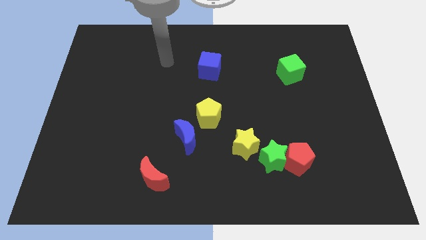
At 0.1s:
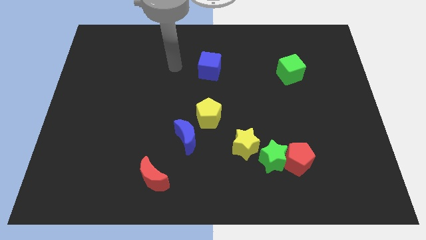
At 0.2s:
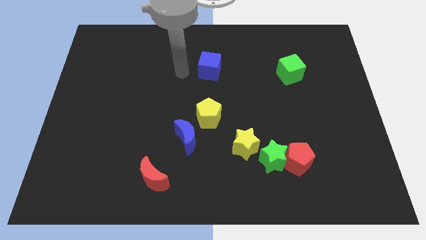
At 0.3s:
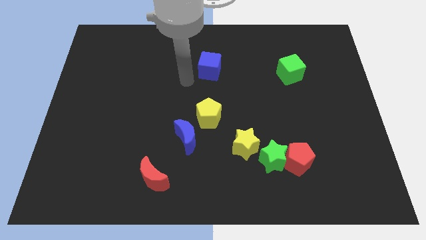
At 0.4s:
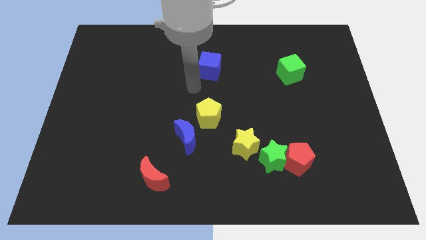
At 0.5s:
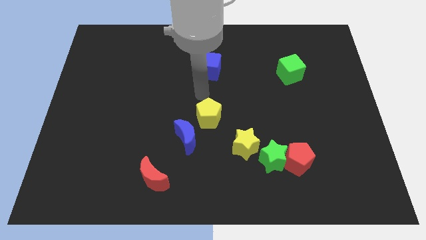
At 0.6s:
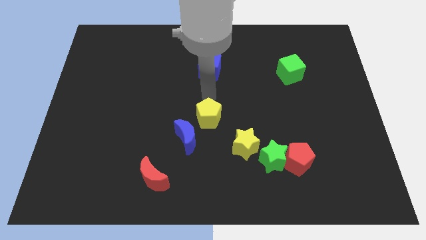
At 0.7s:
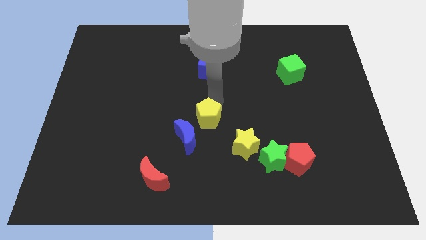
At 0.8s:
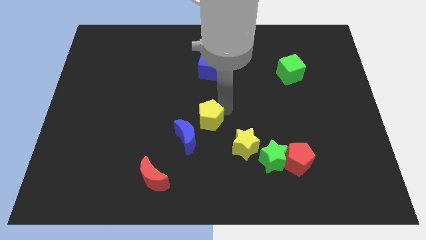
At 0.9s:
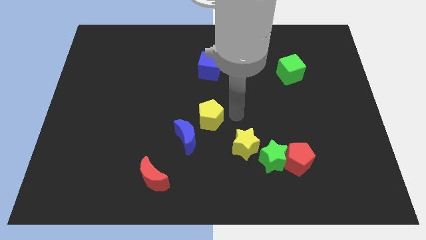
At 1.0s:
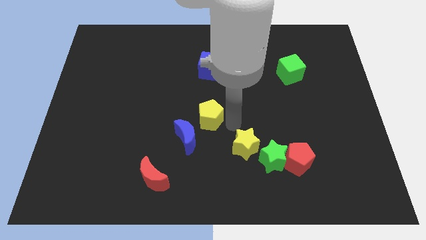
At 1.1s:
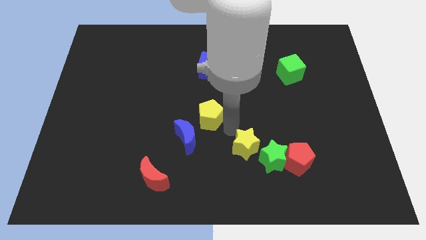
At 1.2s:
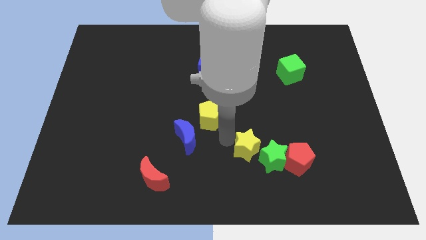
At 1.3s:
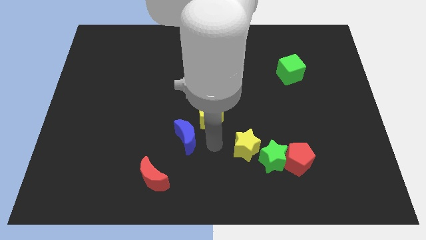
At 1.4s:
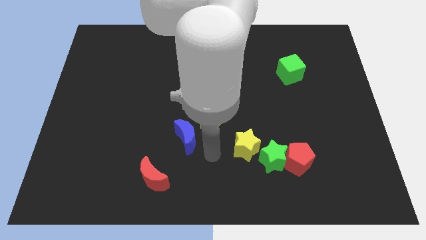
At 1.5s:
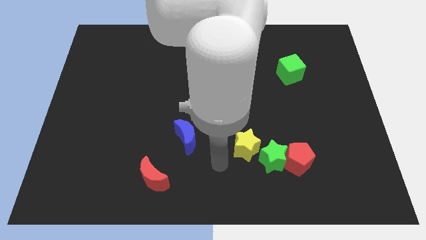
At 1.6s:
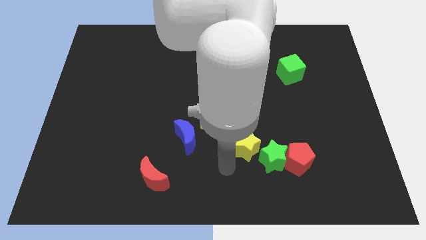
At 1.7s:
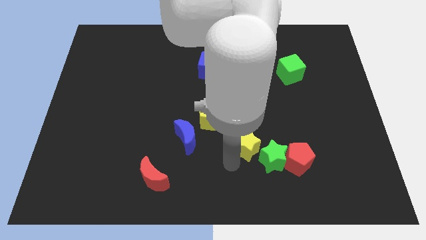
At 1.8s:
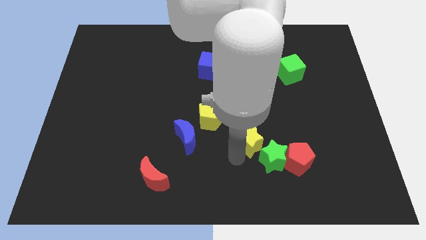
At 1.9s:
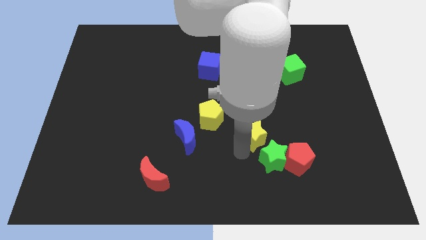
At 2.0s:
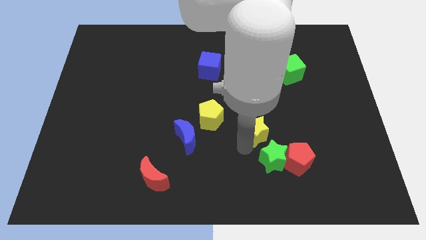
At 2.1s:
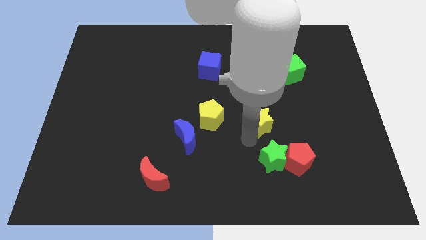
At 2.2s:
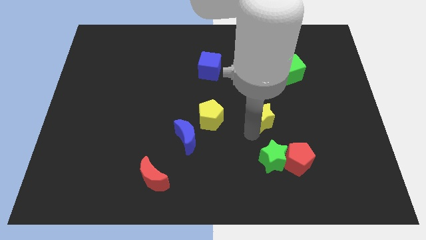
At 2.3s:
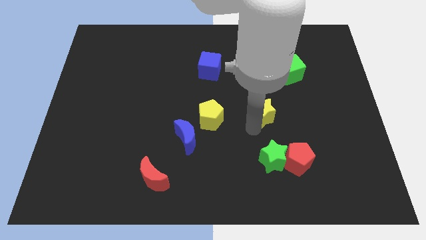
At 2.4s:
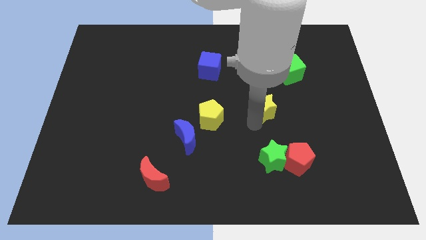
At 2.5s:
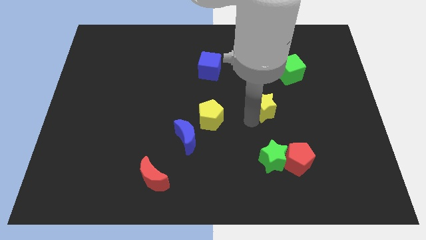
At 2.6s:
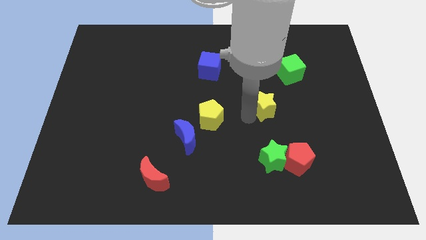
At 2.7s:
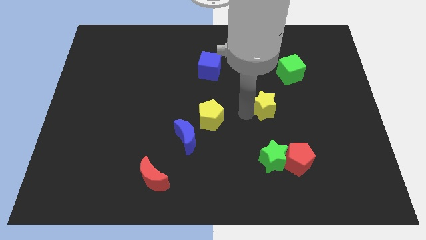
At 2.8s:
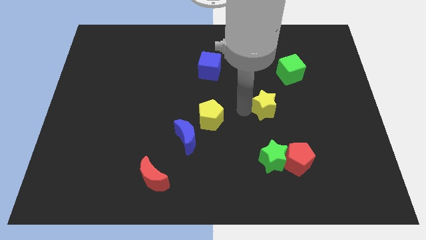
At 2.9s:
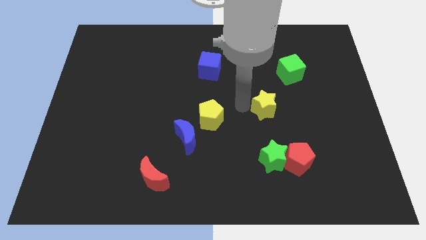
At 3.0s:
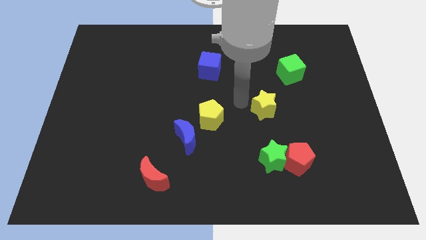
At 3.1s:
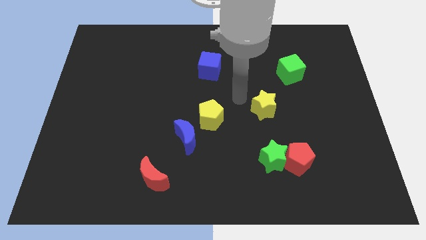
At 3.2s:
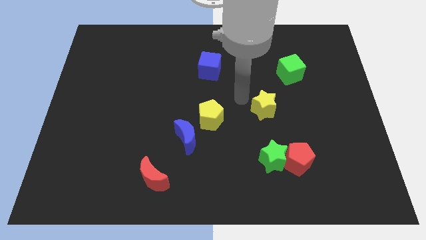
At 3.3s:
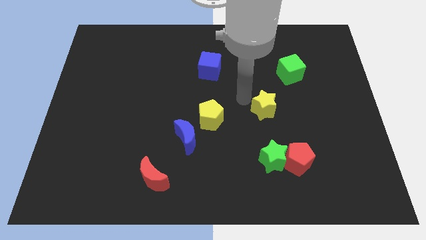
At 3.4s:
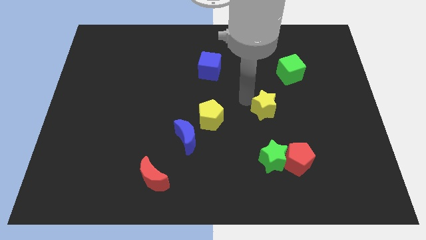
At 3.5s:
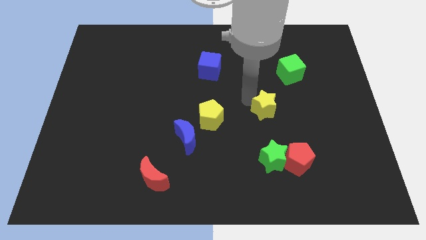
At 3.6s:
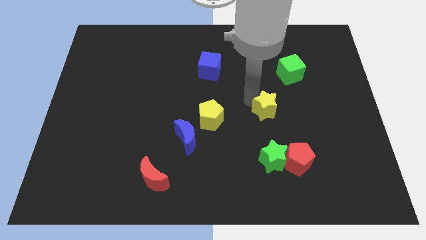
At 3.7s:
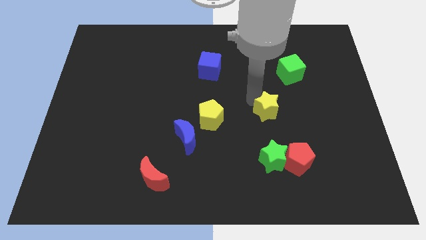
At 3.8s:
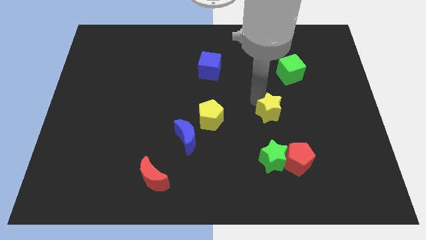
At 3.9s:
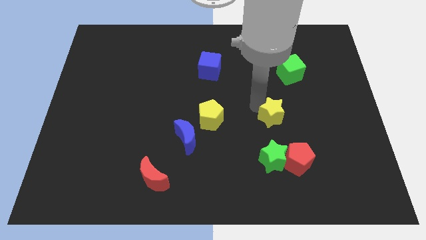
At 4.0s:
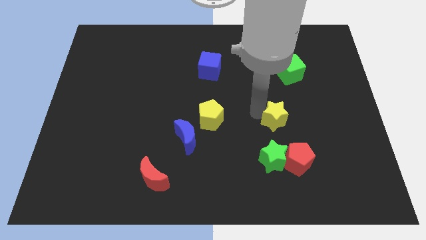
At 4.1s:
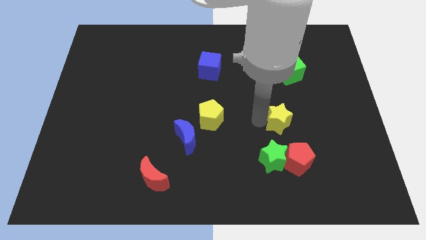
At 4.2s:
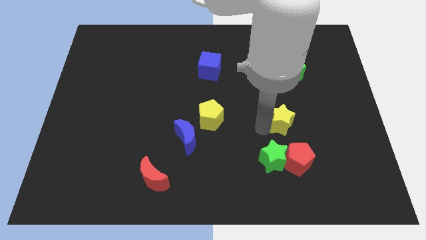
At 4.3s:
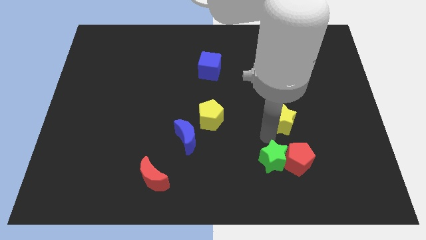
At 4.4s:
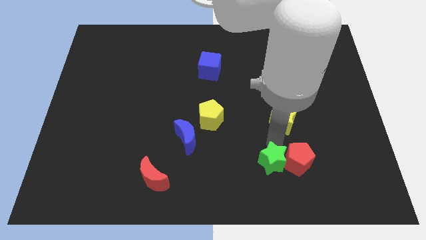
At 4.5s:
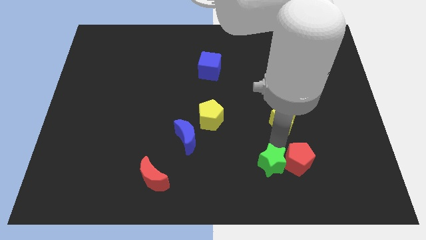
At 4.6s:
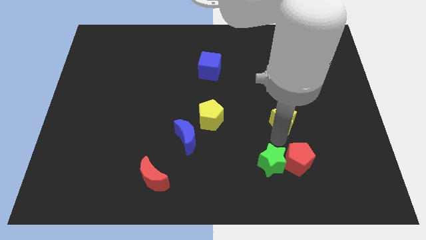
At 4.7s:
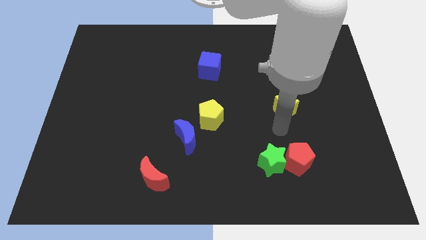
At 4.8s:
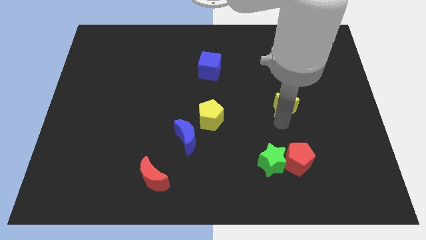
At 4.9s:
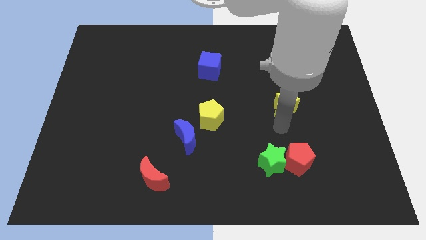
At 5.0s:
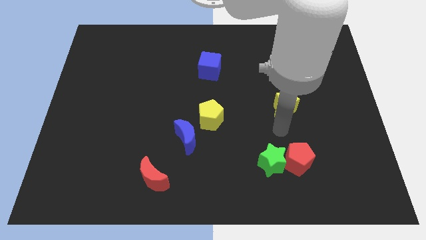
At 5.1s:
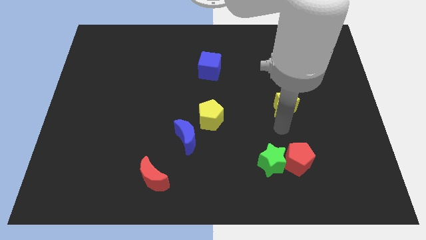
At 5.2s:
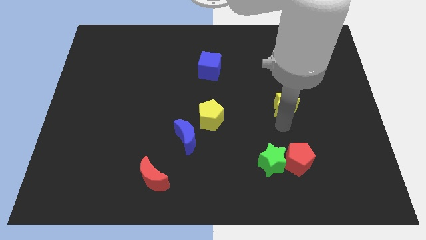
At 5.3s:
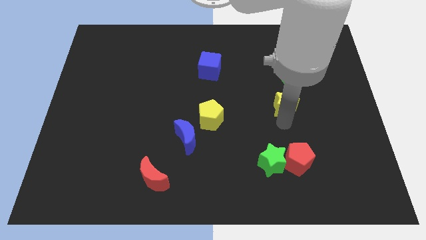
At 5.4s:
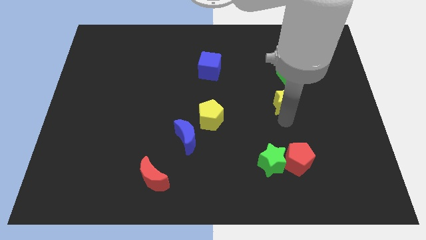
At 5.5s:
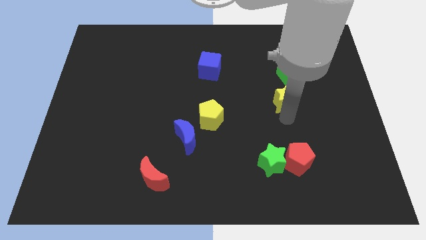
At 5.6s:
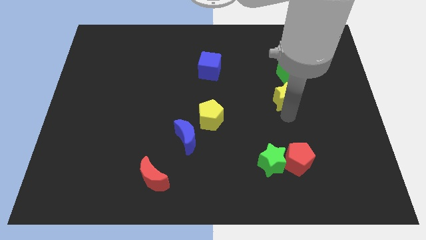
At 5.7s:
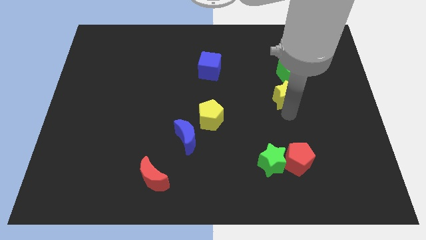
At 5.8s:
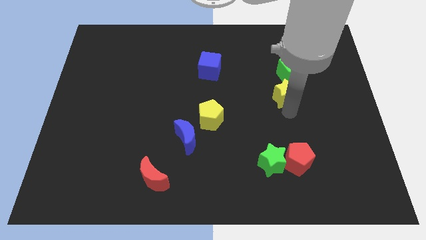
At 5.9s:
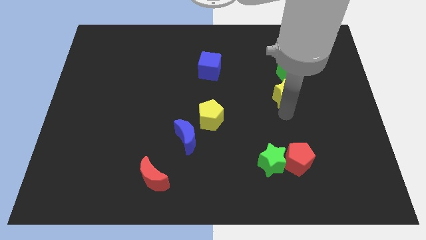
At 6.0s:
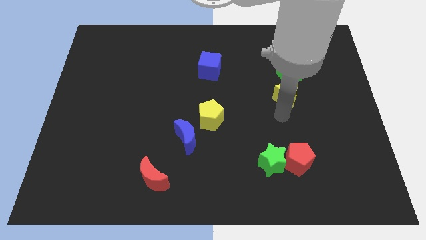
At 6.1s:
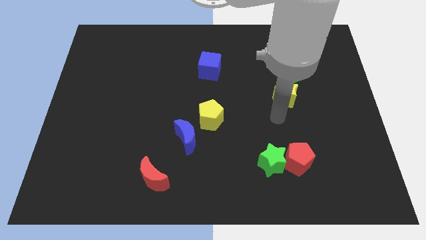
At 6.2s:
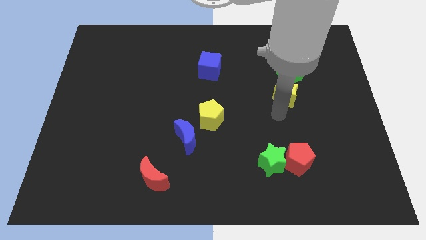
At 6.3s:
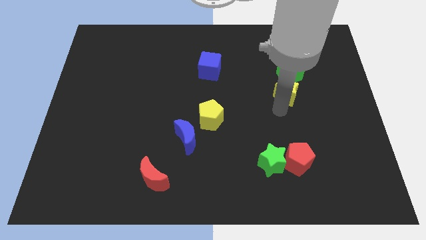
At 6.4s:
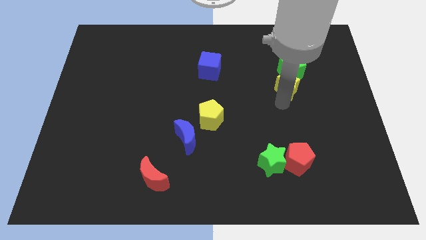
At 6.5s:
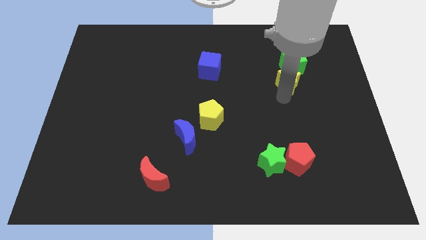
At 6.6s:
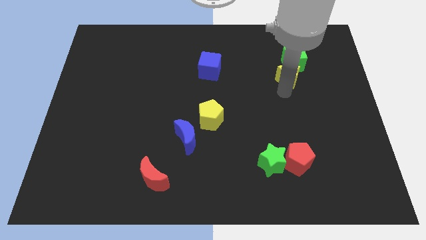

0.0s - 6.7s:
put the yellow star towards the green cube

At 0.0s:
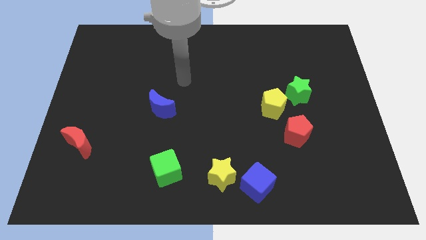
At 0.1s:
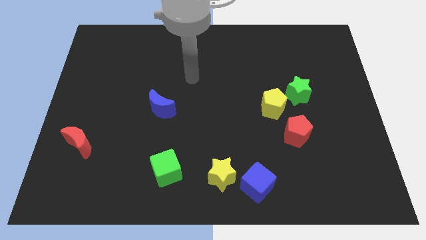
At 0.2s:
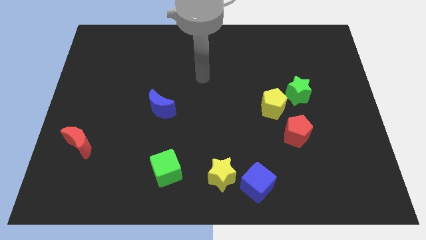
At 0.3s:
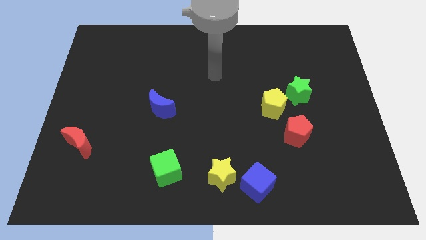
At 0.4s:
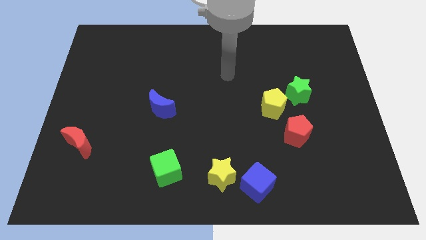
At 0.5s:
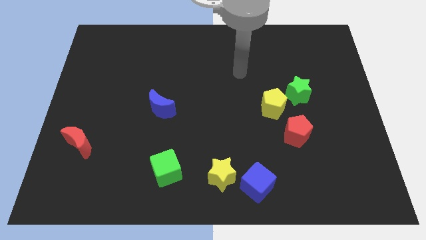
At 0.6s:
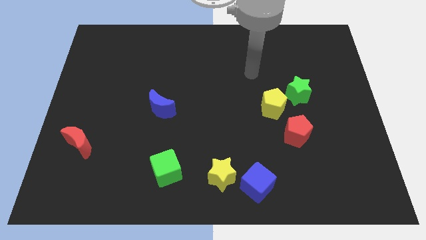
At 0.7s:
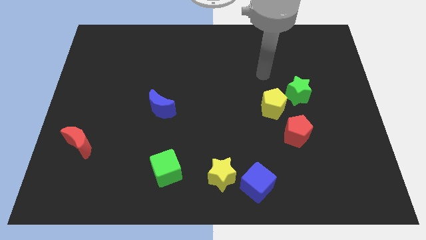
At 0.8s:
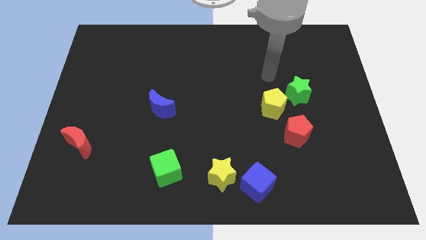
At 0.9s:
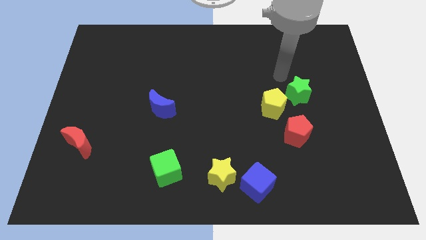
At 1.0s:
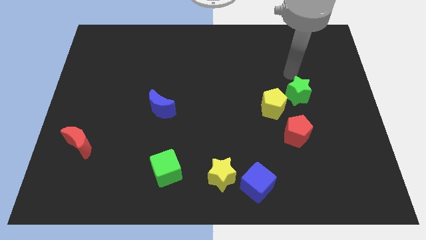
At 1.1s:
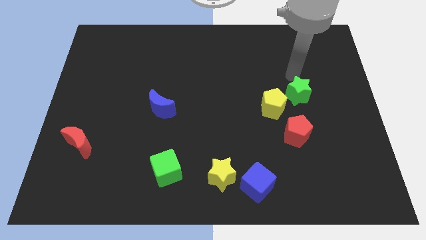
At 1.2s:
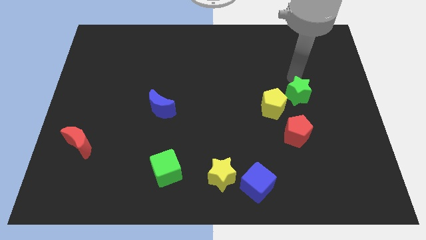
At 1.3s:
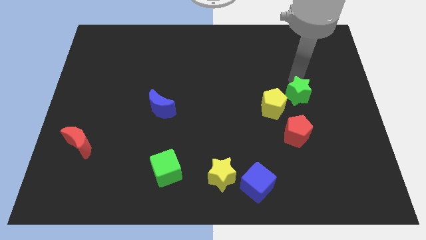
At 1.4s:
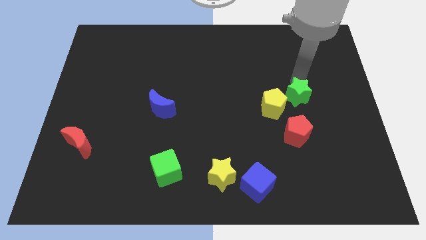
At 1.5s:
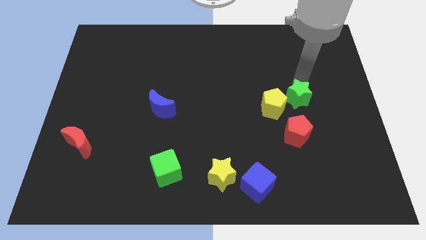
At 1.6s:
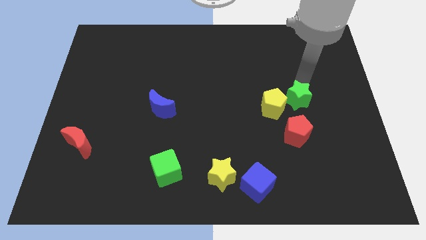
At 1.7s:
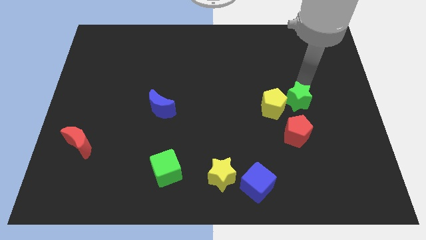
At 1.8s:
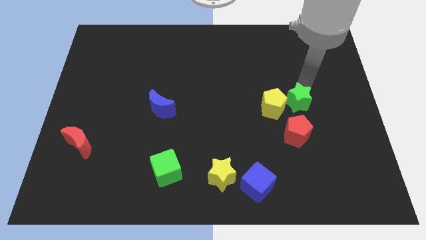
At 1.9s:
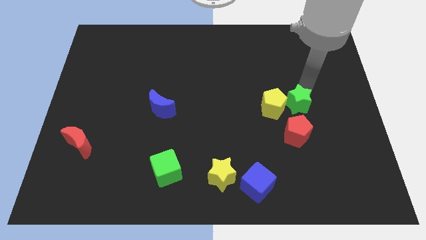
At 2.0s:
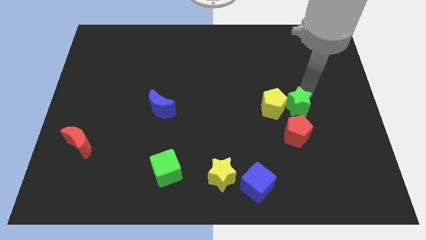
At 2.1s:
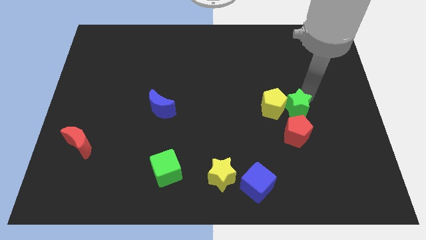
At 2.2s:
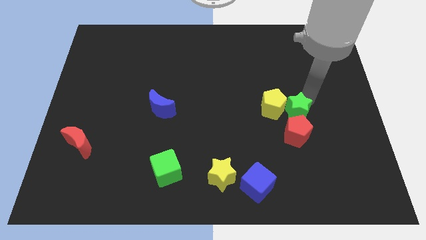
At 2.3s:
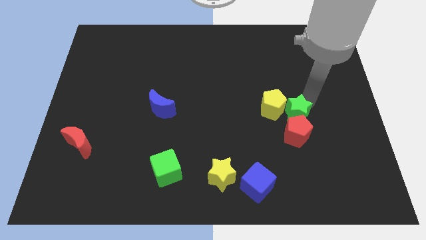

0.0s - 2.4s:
push the green star towards the red pentagon
